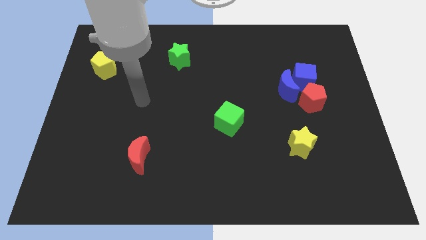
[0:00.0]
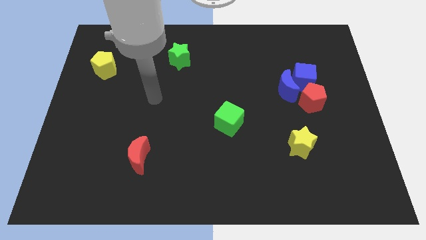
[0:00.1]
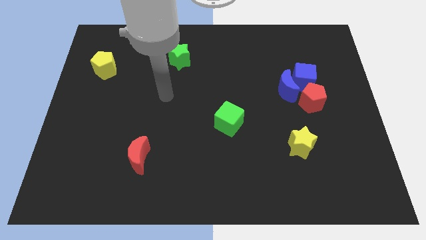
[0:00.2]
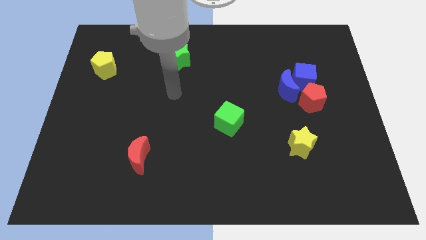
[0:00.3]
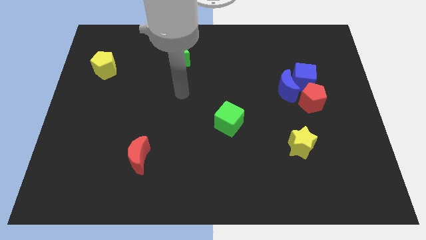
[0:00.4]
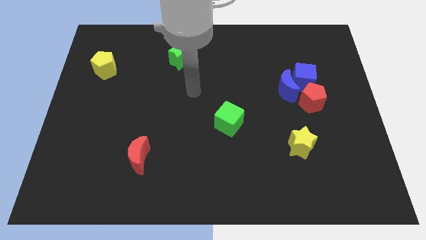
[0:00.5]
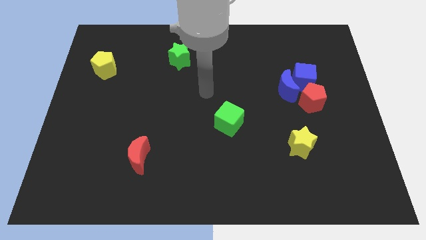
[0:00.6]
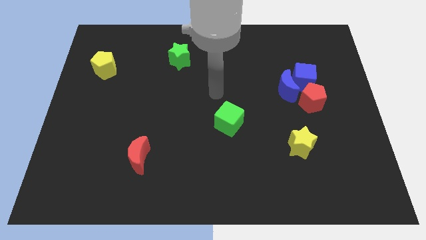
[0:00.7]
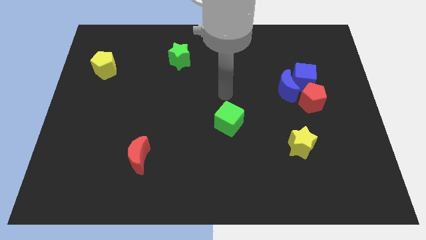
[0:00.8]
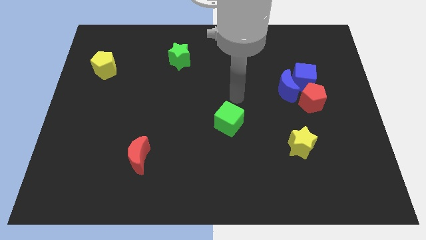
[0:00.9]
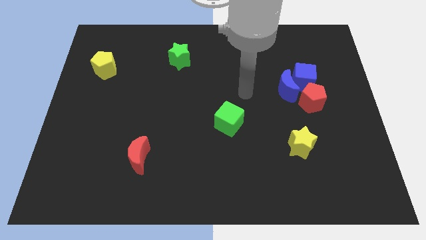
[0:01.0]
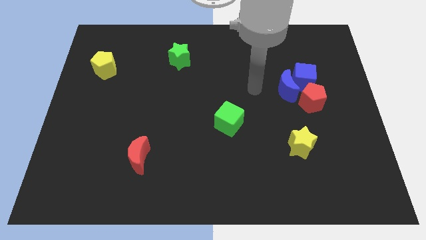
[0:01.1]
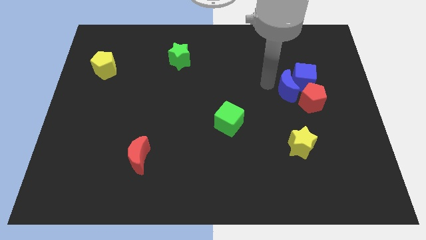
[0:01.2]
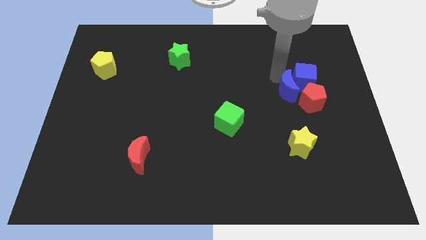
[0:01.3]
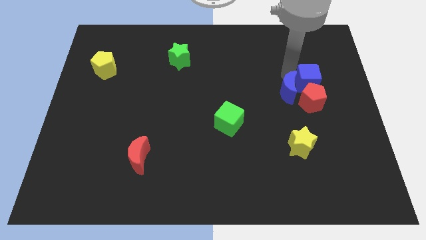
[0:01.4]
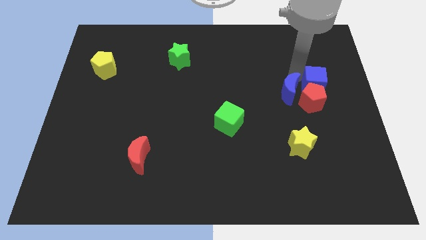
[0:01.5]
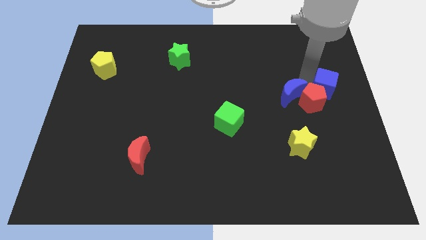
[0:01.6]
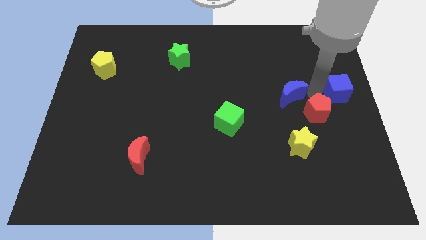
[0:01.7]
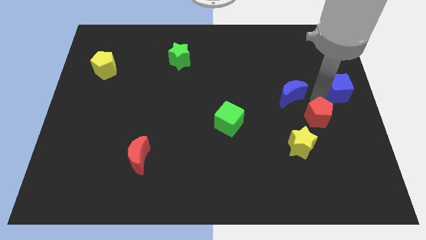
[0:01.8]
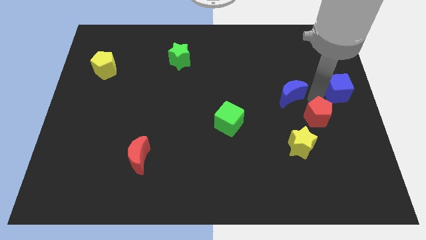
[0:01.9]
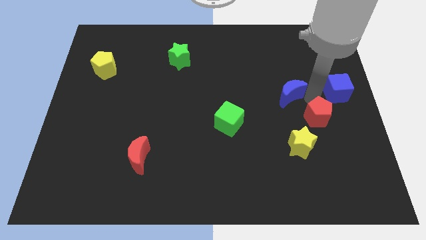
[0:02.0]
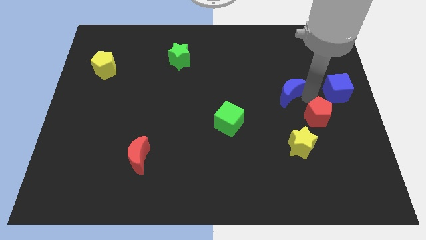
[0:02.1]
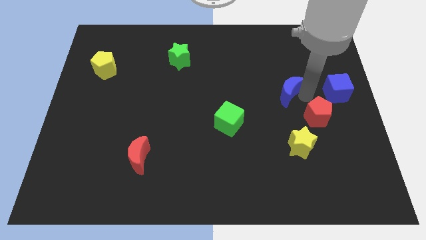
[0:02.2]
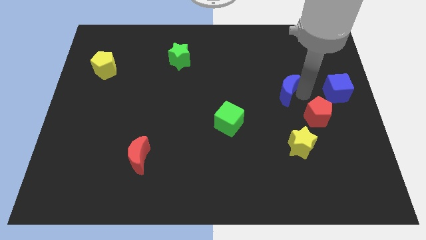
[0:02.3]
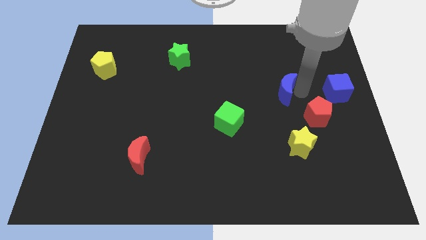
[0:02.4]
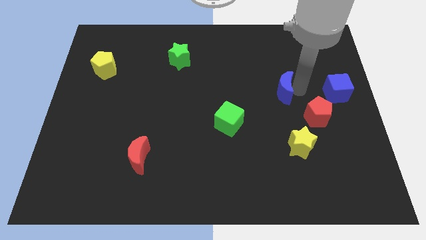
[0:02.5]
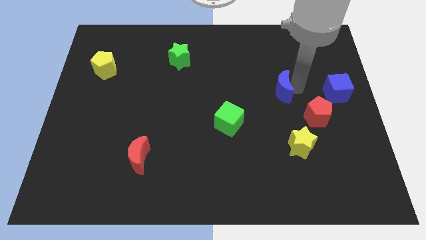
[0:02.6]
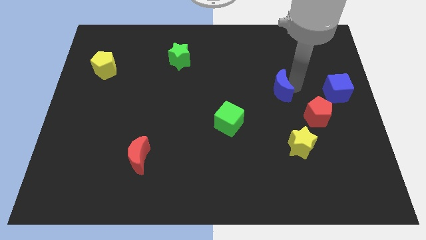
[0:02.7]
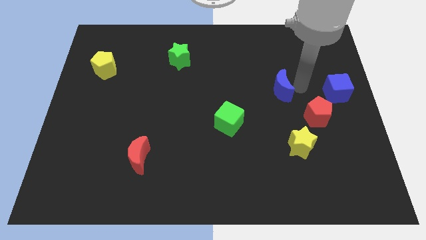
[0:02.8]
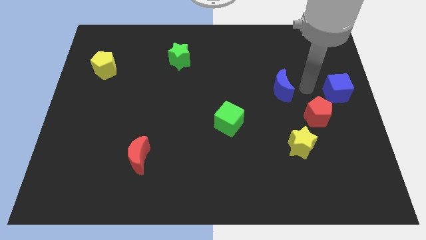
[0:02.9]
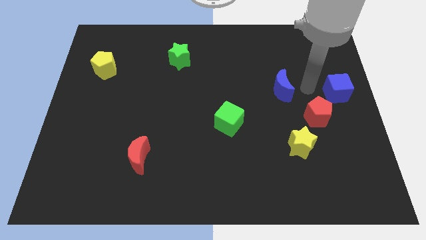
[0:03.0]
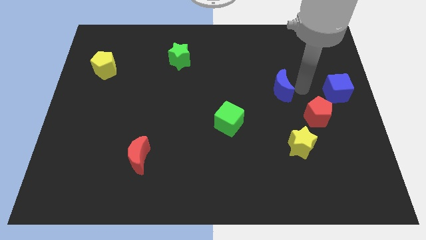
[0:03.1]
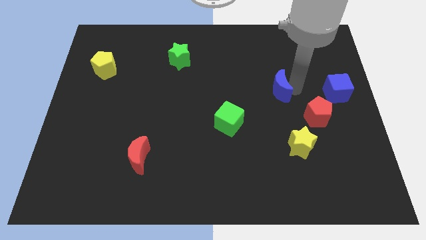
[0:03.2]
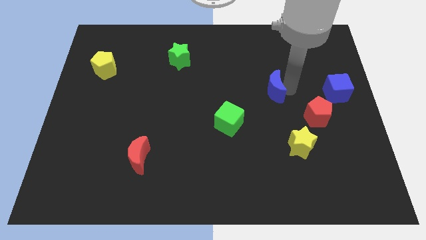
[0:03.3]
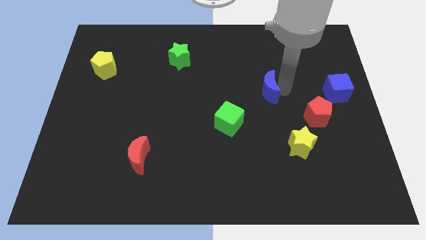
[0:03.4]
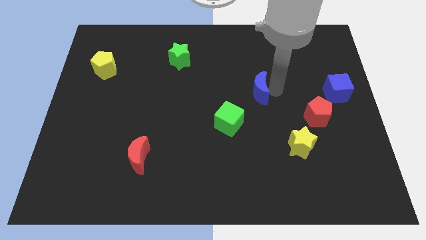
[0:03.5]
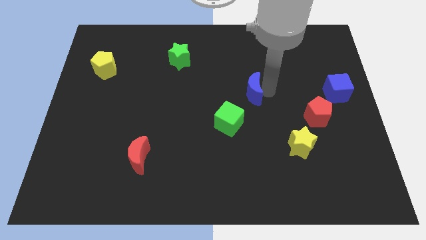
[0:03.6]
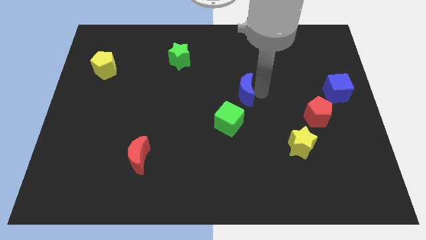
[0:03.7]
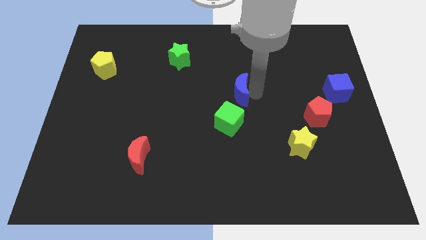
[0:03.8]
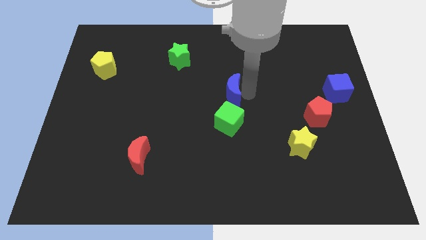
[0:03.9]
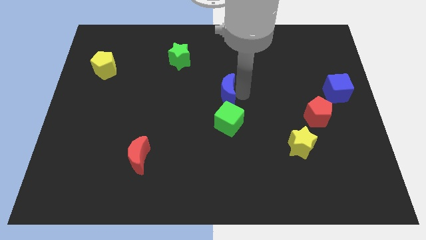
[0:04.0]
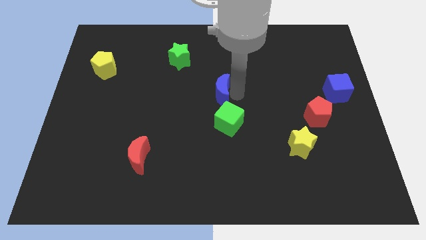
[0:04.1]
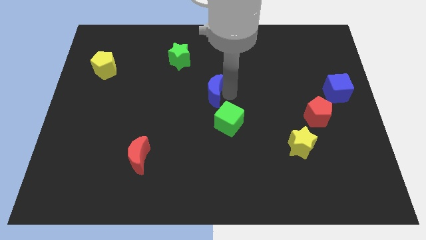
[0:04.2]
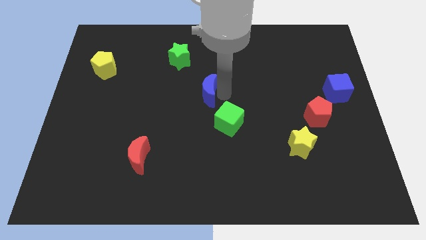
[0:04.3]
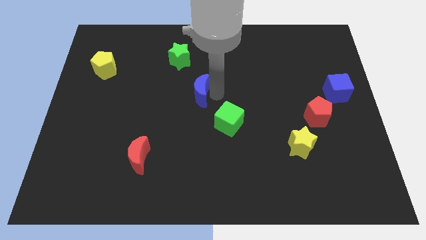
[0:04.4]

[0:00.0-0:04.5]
push the blue moon to the left

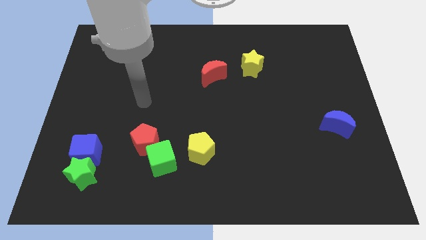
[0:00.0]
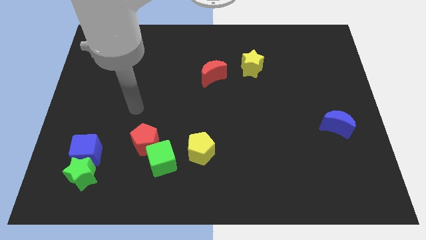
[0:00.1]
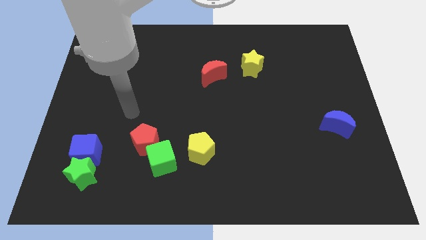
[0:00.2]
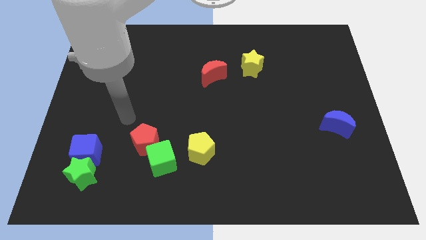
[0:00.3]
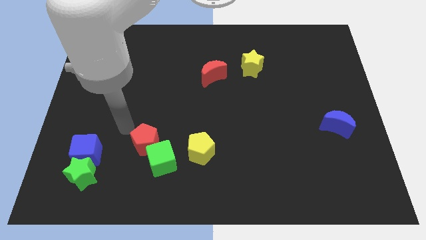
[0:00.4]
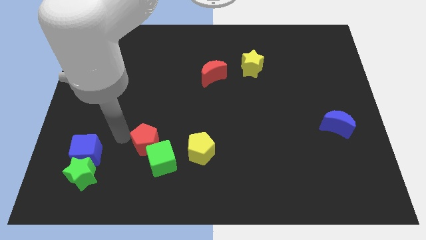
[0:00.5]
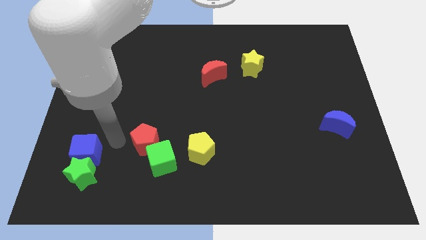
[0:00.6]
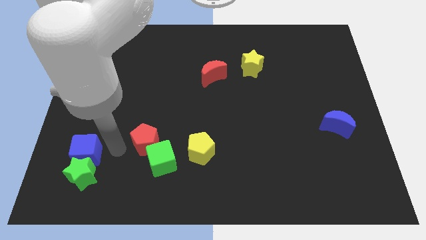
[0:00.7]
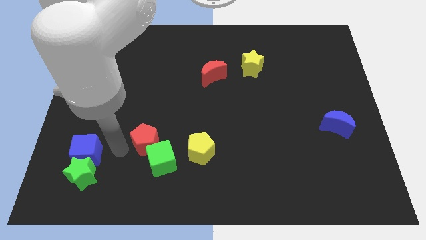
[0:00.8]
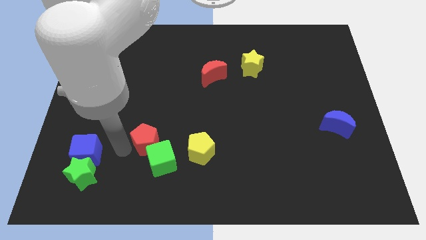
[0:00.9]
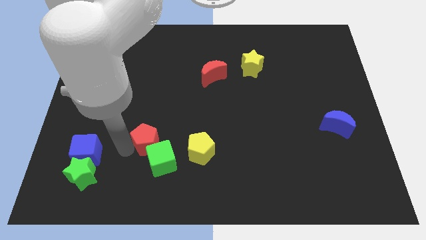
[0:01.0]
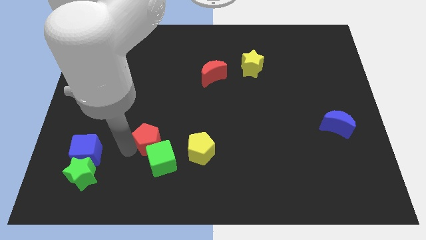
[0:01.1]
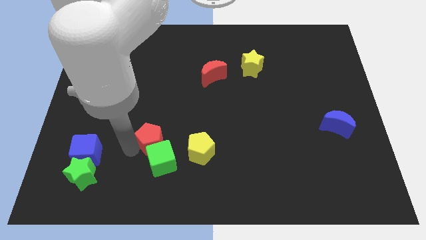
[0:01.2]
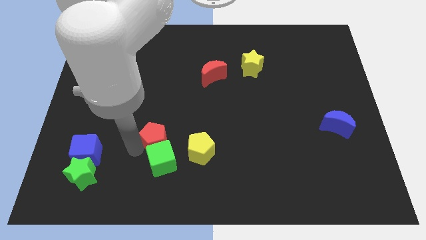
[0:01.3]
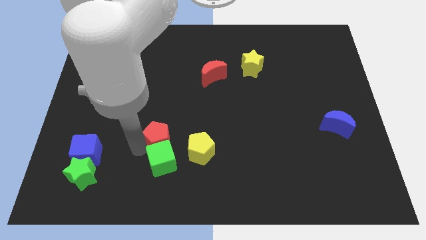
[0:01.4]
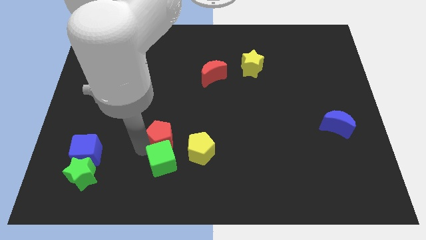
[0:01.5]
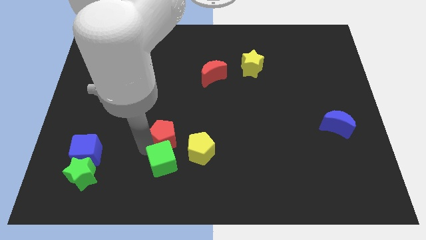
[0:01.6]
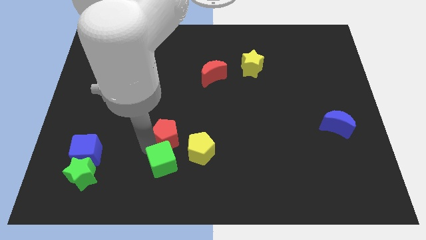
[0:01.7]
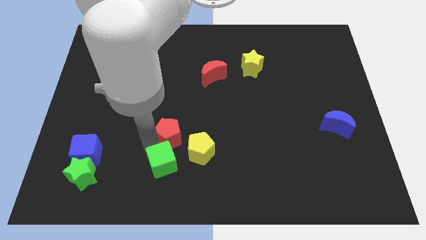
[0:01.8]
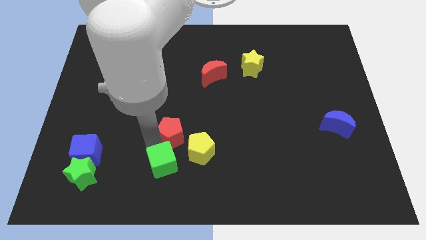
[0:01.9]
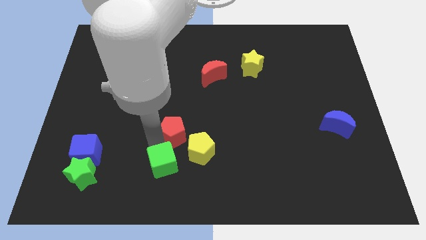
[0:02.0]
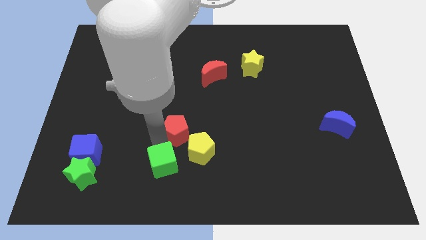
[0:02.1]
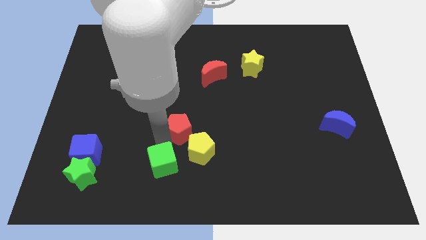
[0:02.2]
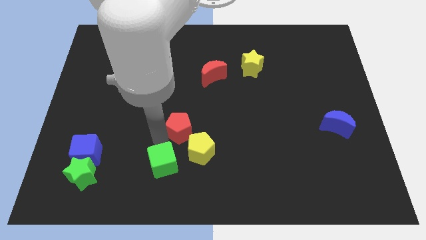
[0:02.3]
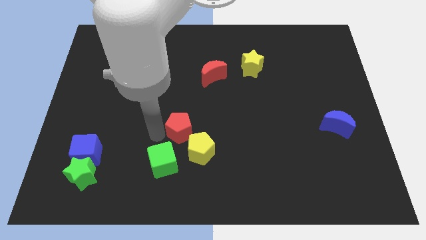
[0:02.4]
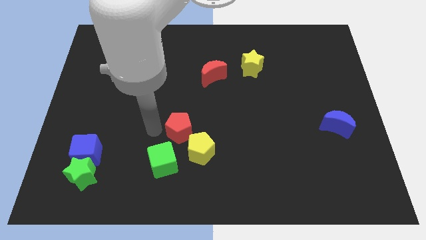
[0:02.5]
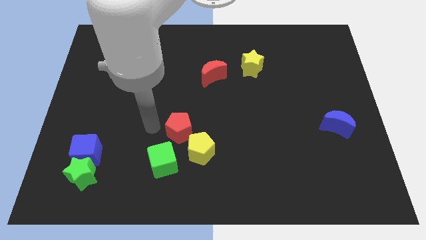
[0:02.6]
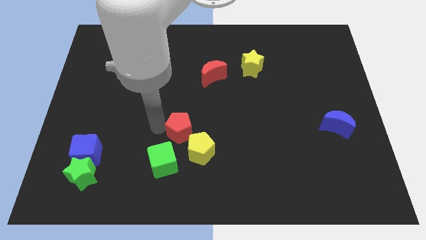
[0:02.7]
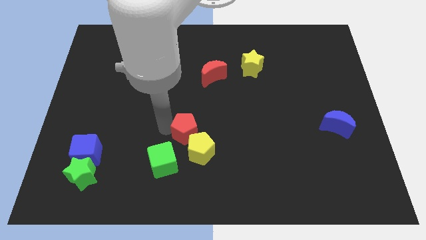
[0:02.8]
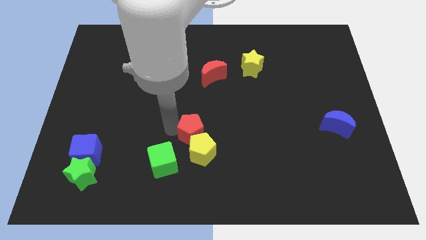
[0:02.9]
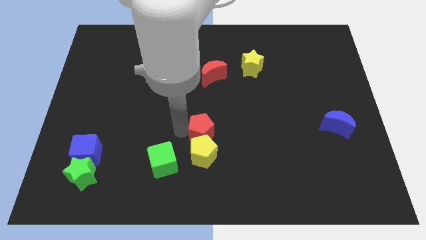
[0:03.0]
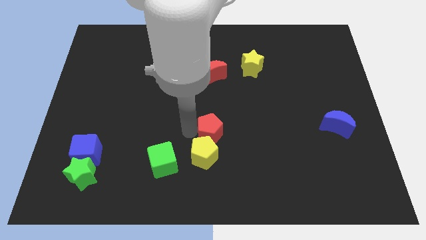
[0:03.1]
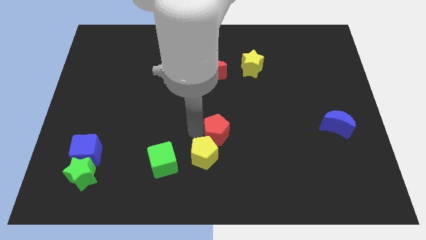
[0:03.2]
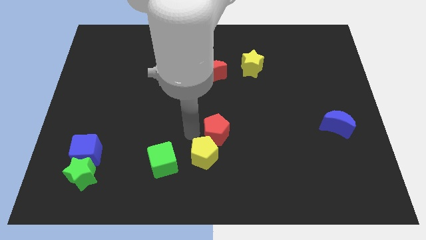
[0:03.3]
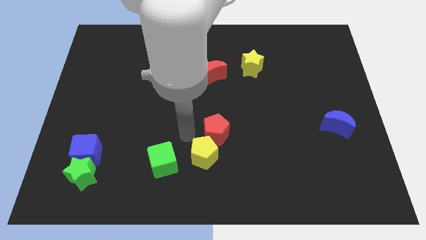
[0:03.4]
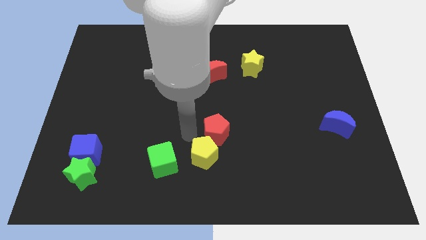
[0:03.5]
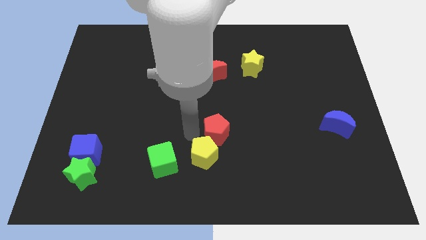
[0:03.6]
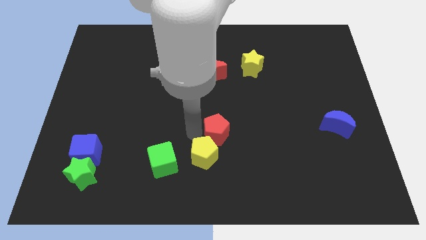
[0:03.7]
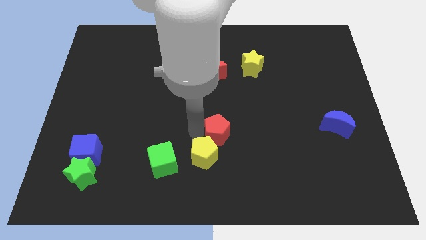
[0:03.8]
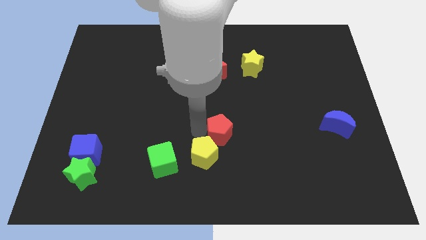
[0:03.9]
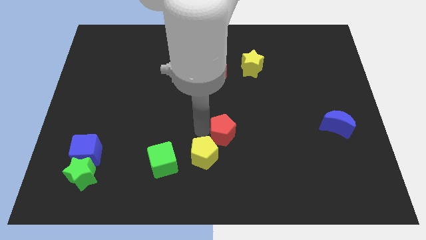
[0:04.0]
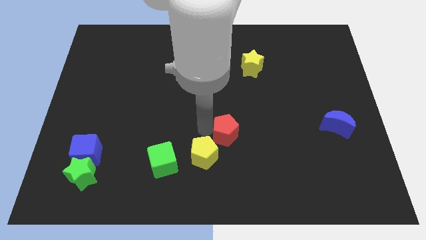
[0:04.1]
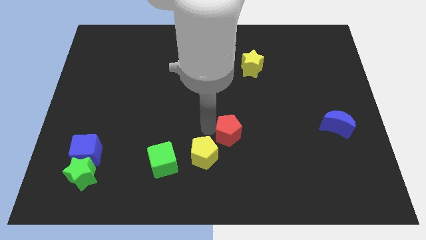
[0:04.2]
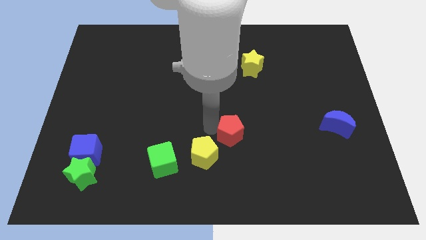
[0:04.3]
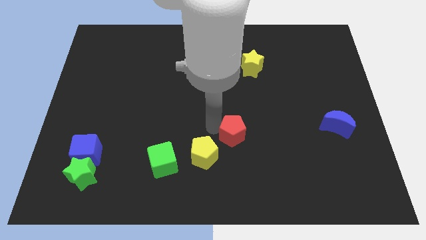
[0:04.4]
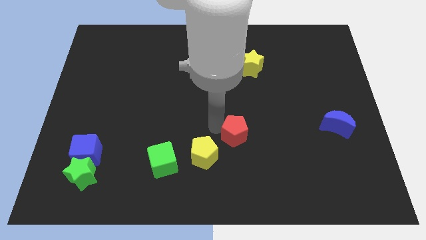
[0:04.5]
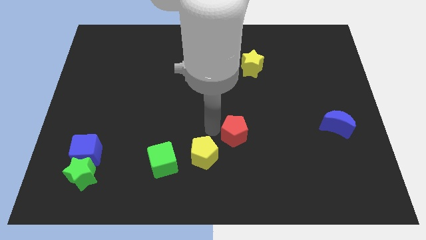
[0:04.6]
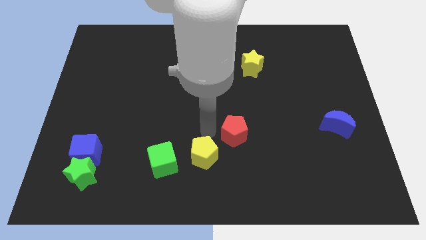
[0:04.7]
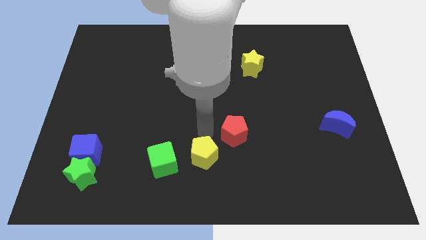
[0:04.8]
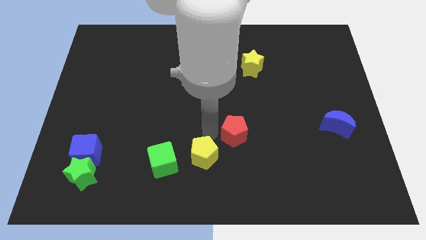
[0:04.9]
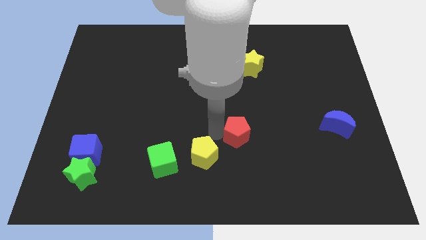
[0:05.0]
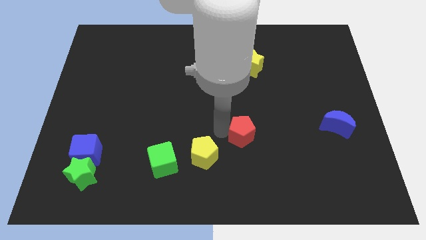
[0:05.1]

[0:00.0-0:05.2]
push the red pentagon right
